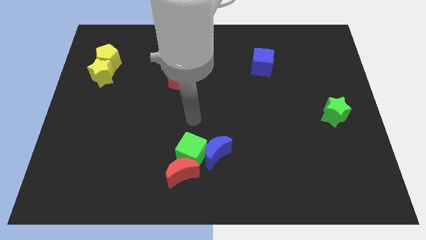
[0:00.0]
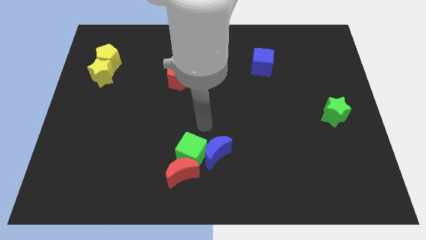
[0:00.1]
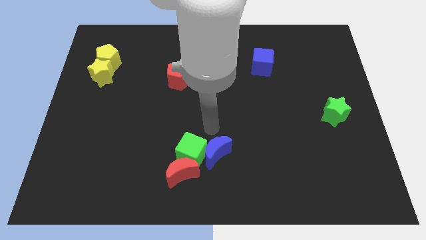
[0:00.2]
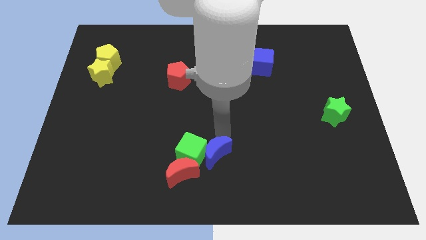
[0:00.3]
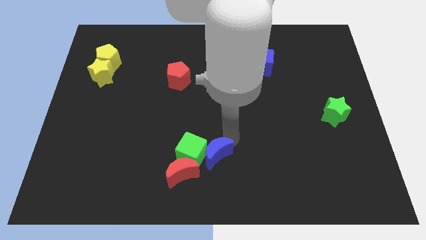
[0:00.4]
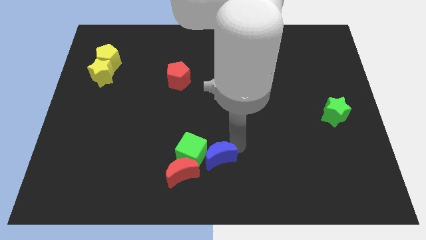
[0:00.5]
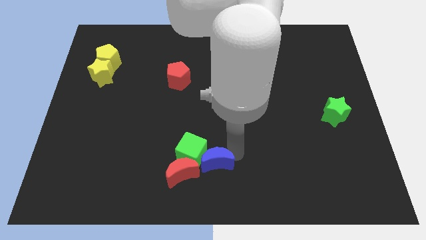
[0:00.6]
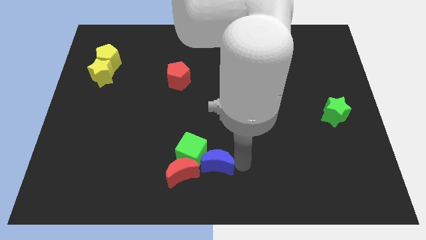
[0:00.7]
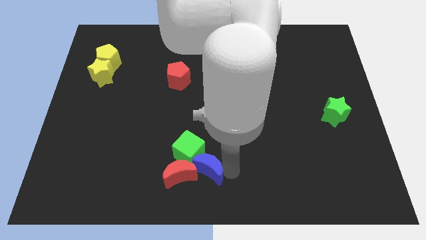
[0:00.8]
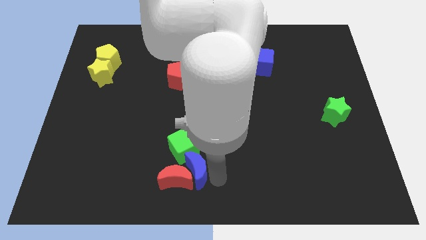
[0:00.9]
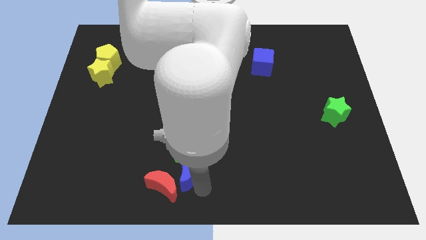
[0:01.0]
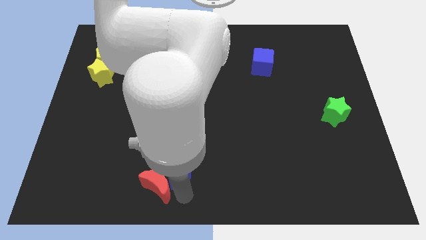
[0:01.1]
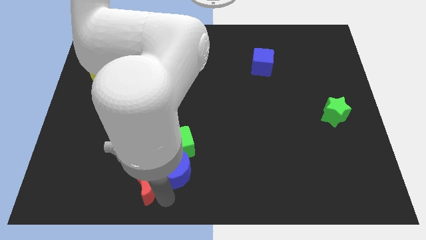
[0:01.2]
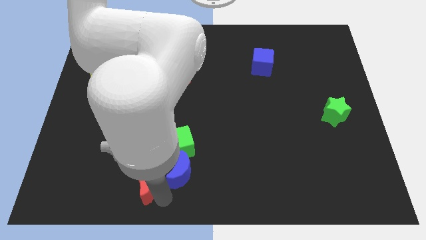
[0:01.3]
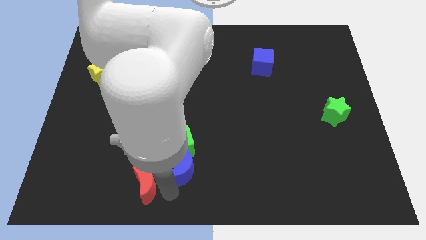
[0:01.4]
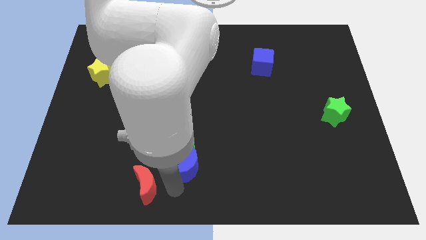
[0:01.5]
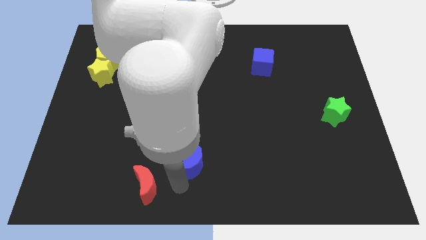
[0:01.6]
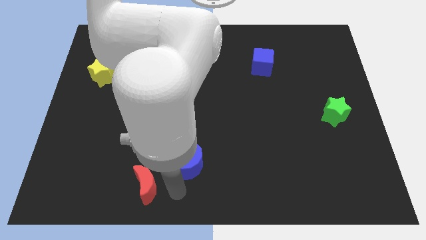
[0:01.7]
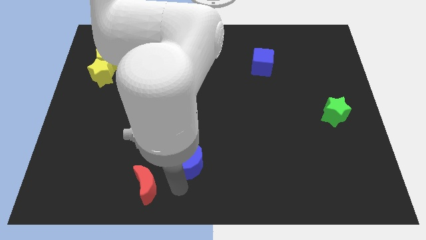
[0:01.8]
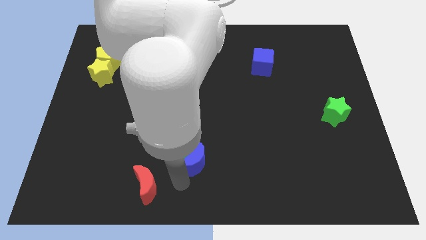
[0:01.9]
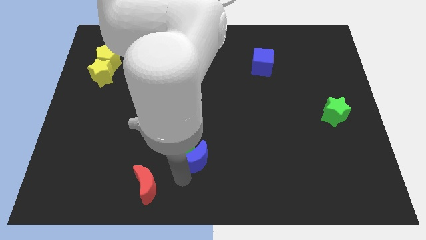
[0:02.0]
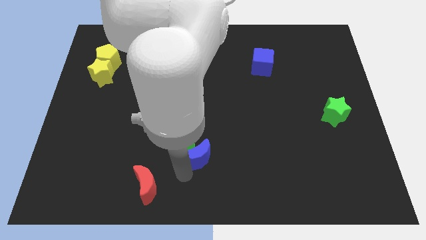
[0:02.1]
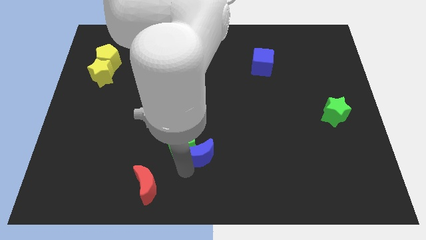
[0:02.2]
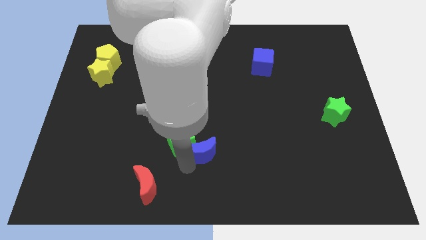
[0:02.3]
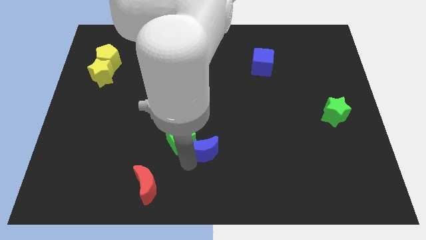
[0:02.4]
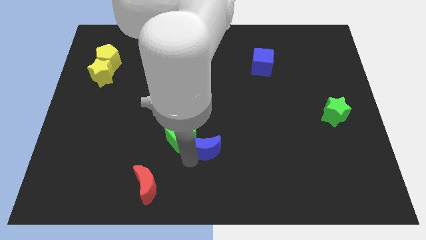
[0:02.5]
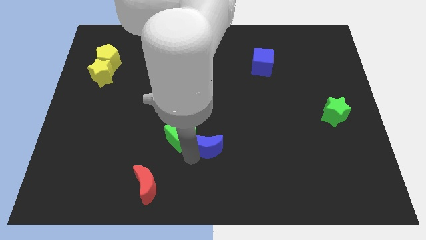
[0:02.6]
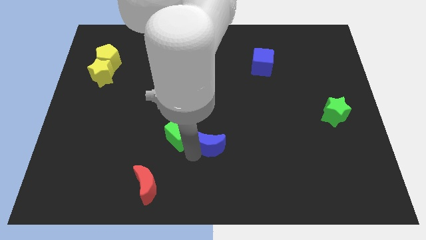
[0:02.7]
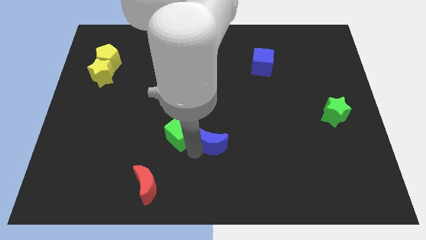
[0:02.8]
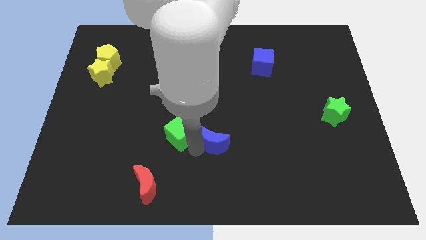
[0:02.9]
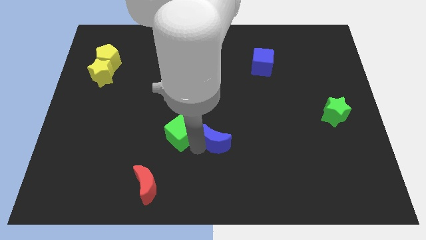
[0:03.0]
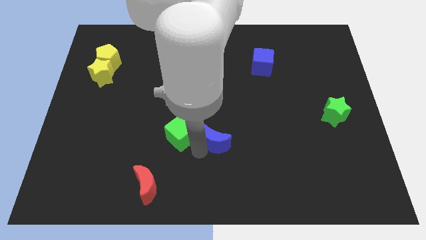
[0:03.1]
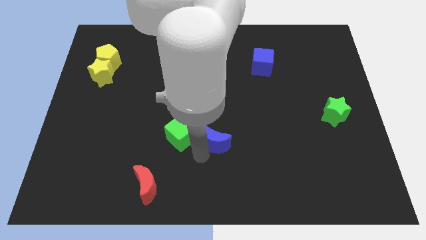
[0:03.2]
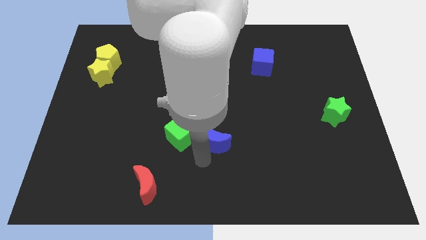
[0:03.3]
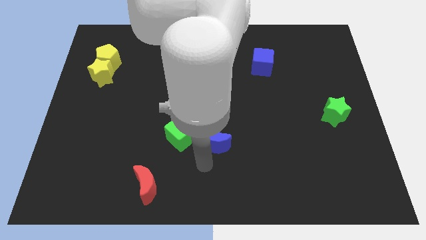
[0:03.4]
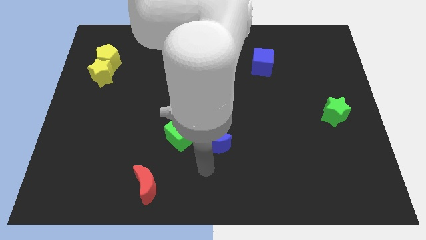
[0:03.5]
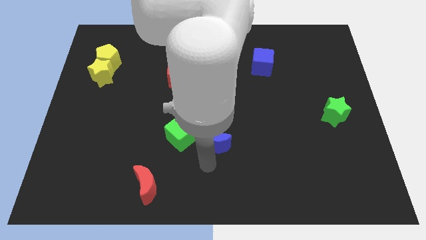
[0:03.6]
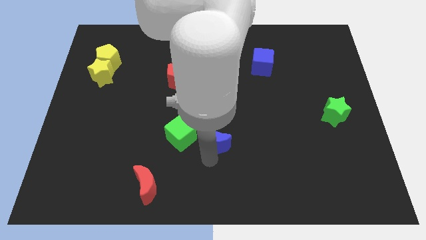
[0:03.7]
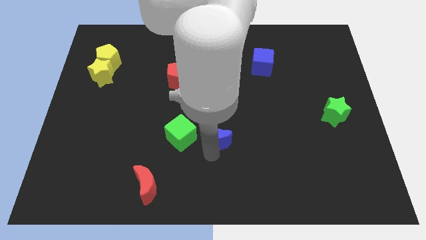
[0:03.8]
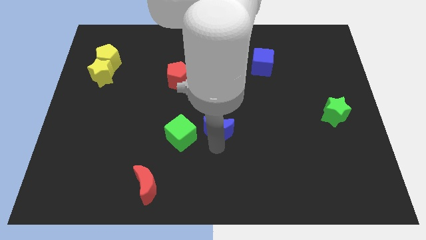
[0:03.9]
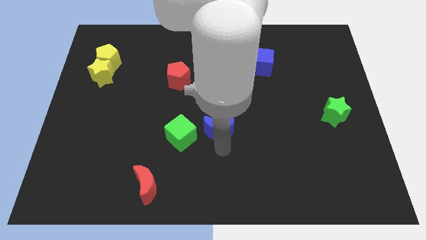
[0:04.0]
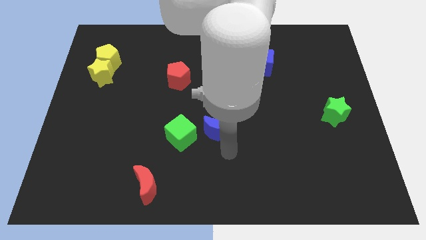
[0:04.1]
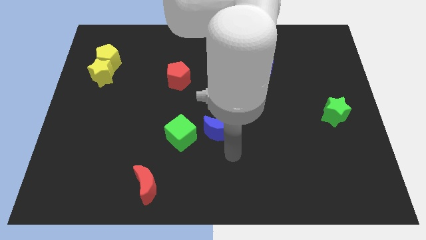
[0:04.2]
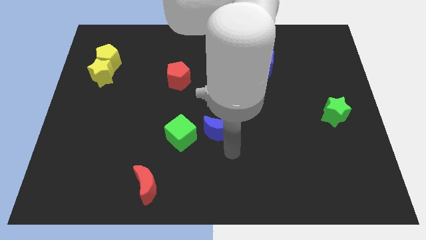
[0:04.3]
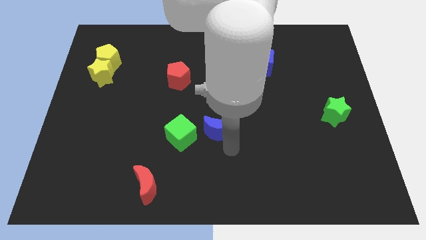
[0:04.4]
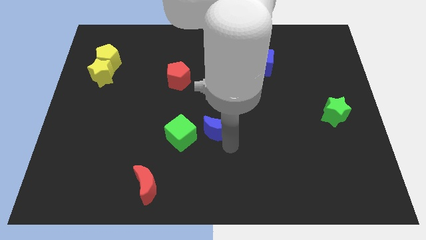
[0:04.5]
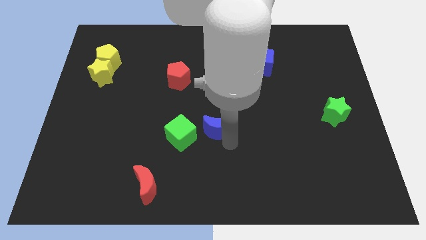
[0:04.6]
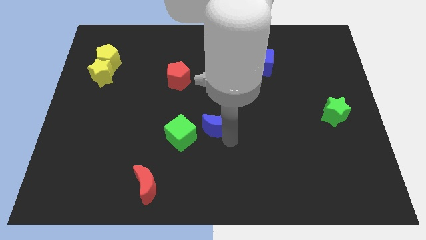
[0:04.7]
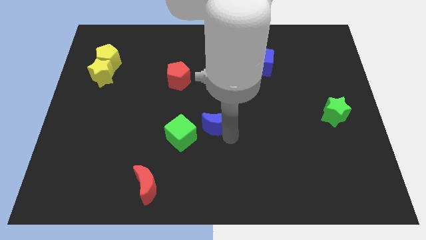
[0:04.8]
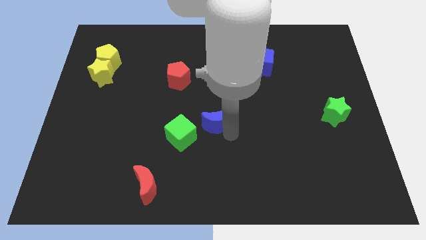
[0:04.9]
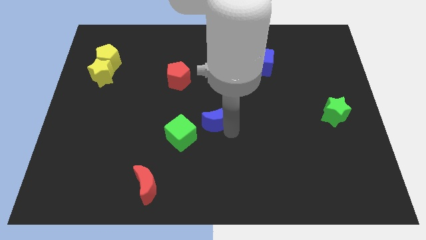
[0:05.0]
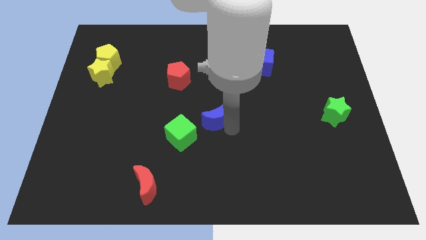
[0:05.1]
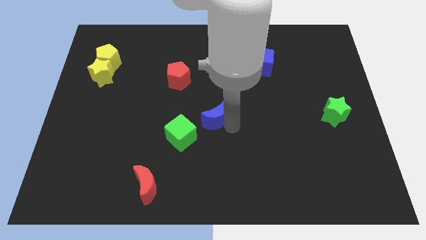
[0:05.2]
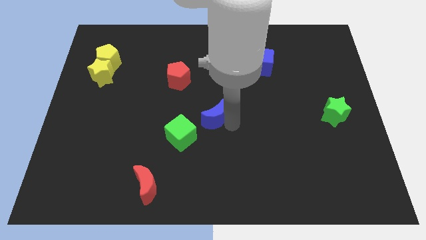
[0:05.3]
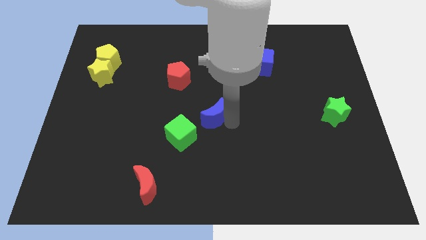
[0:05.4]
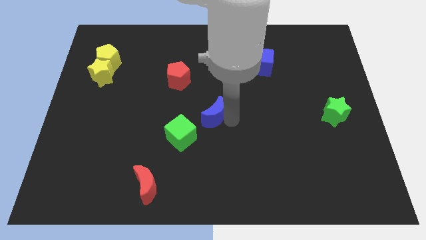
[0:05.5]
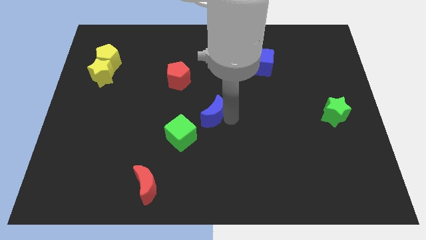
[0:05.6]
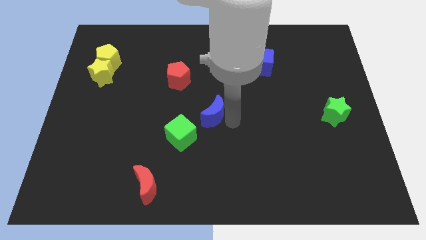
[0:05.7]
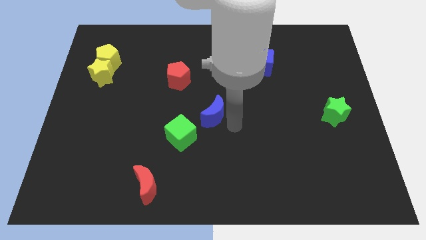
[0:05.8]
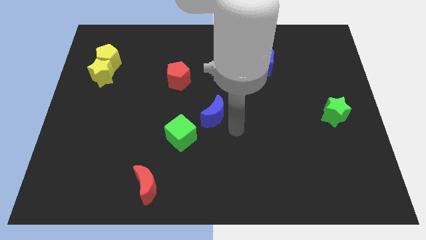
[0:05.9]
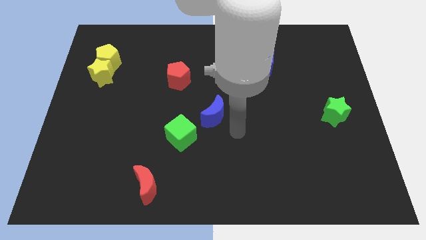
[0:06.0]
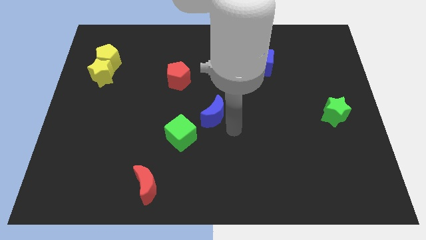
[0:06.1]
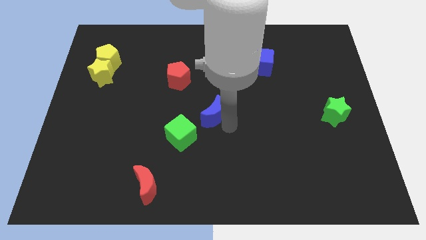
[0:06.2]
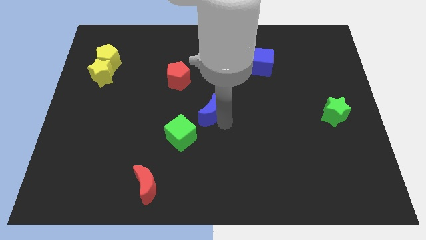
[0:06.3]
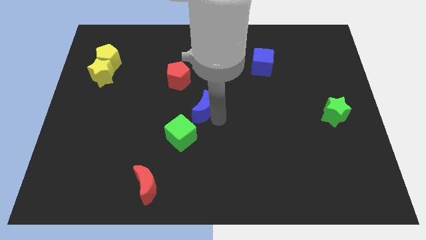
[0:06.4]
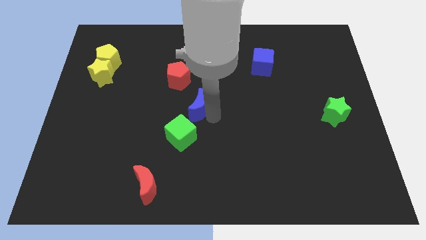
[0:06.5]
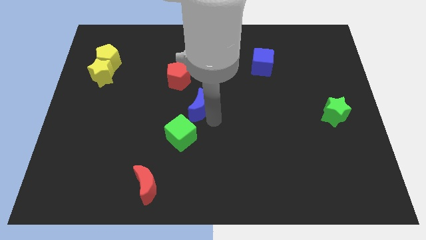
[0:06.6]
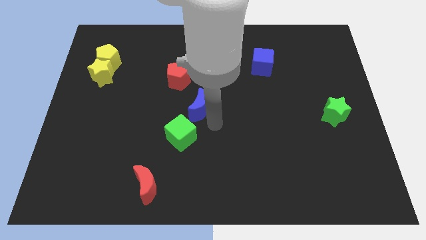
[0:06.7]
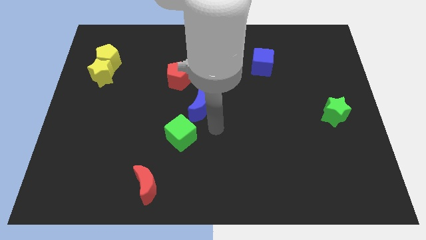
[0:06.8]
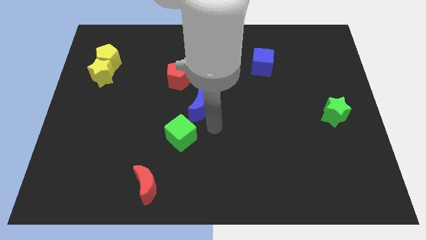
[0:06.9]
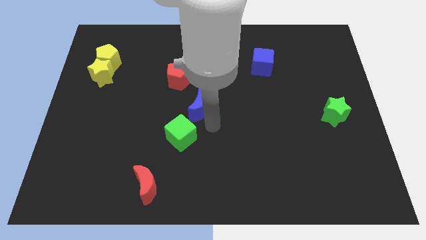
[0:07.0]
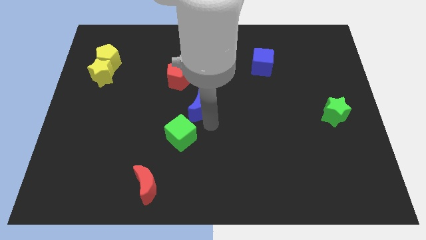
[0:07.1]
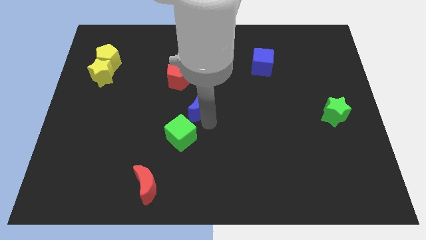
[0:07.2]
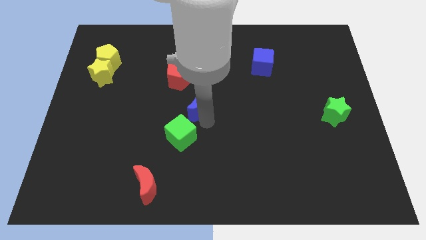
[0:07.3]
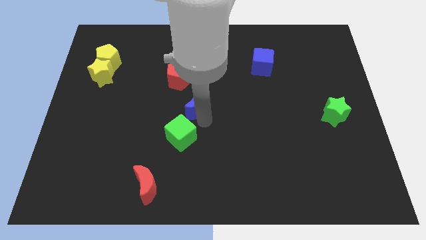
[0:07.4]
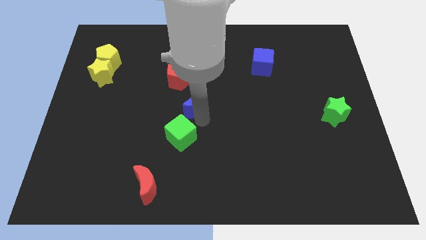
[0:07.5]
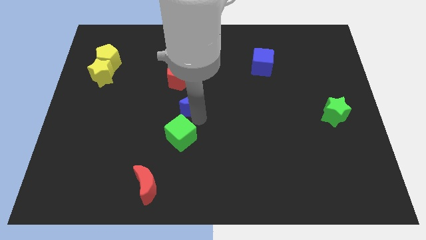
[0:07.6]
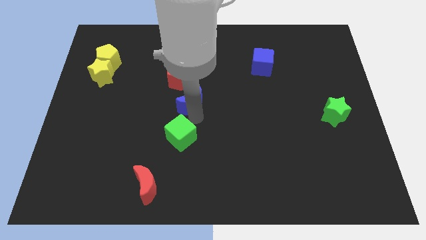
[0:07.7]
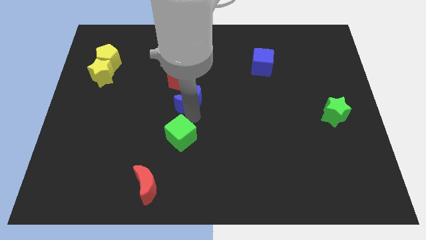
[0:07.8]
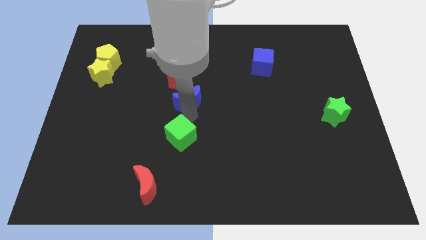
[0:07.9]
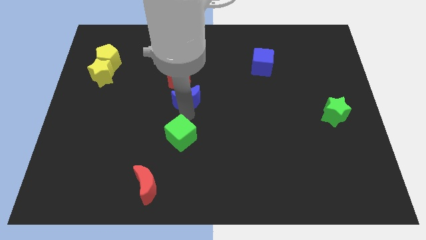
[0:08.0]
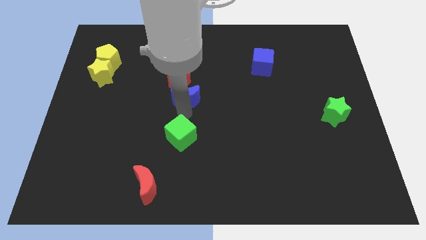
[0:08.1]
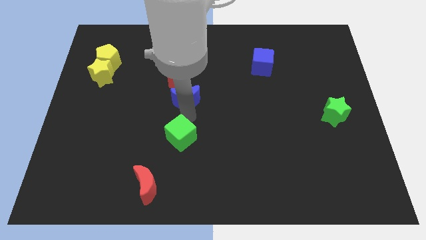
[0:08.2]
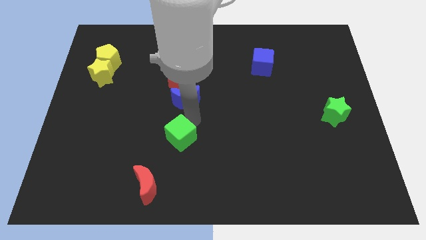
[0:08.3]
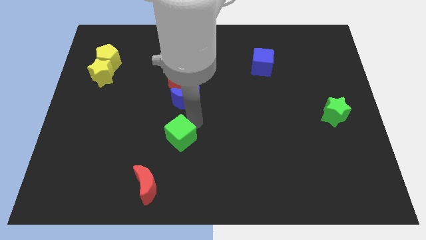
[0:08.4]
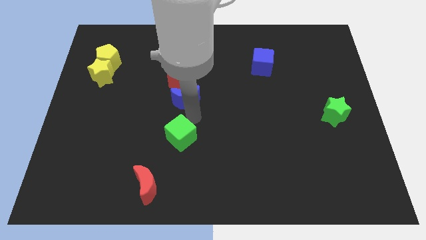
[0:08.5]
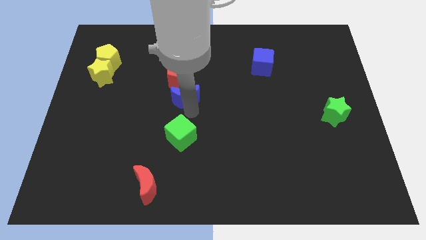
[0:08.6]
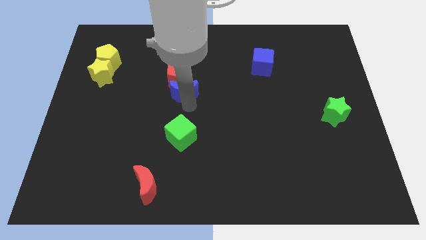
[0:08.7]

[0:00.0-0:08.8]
slide the blue moon to the red pentagon
